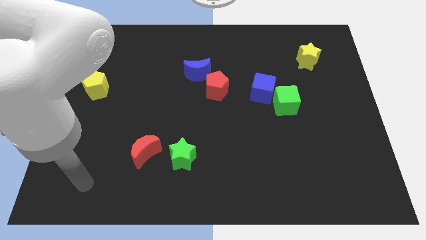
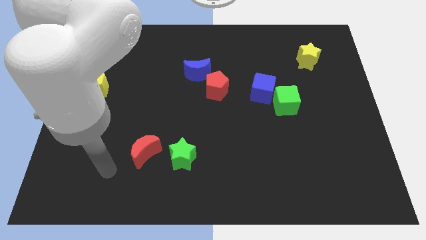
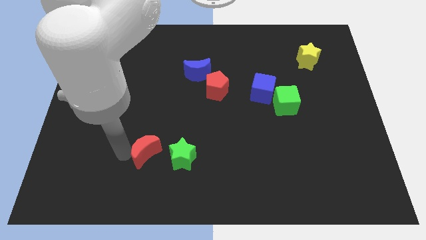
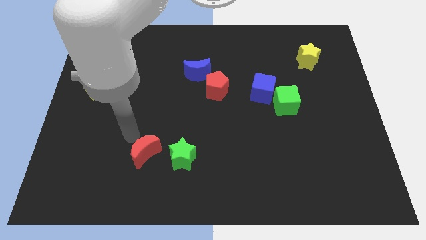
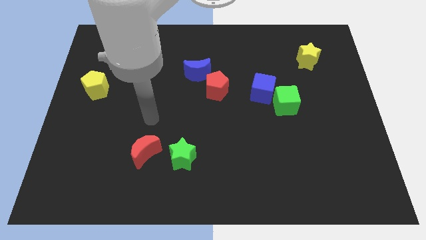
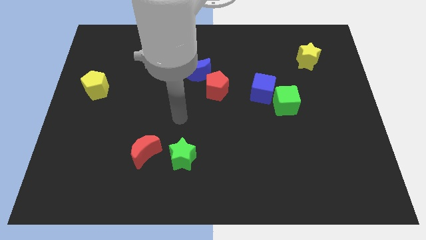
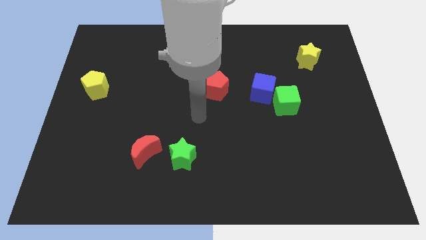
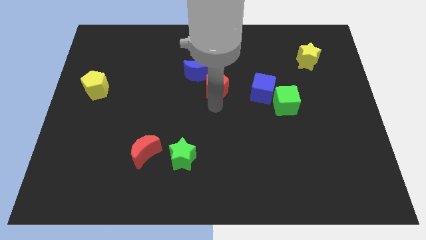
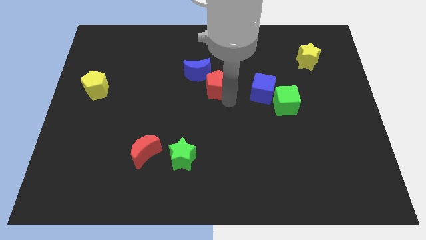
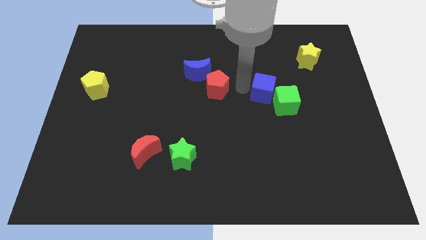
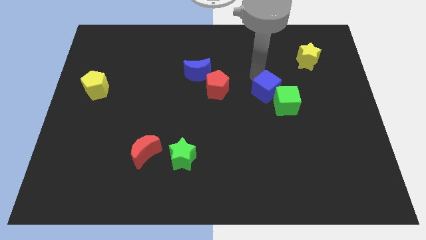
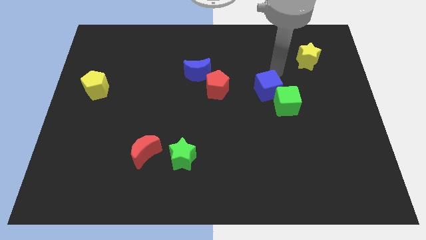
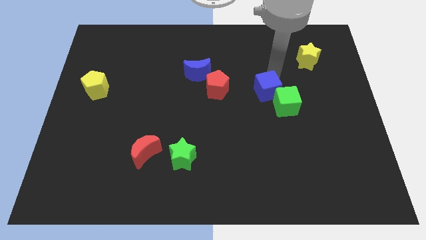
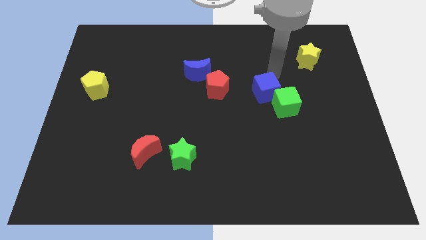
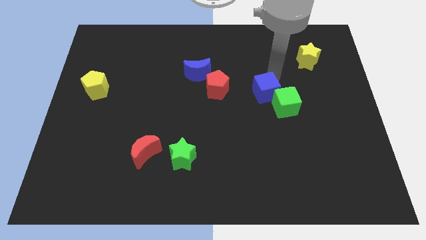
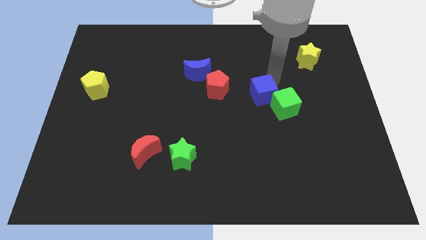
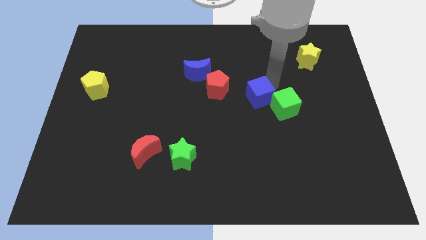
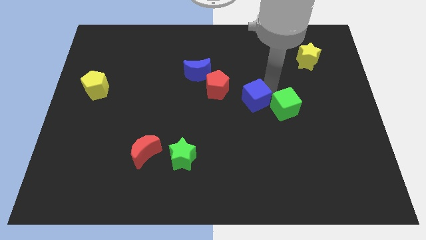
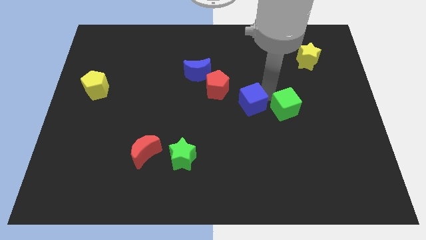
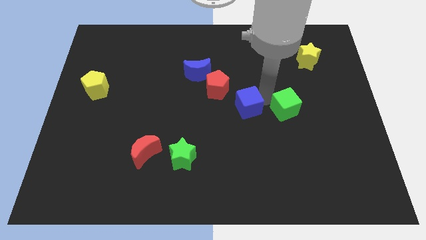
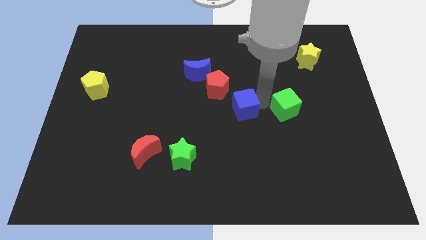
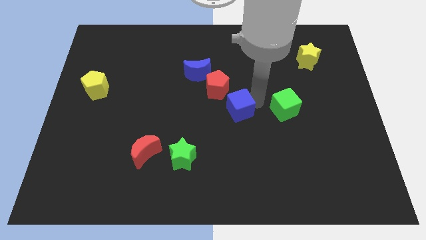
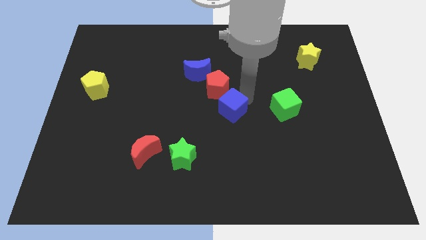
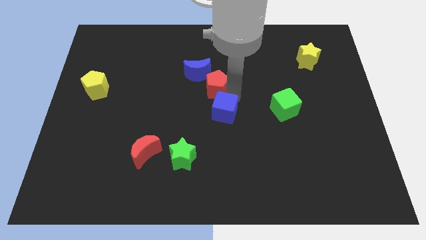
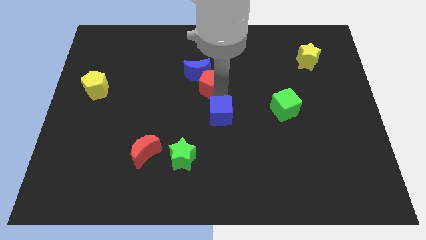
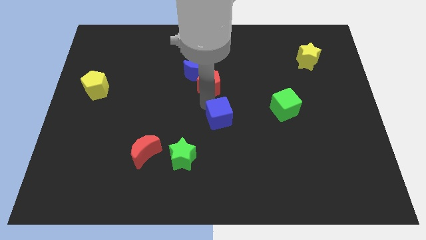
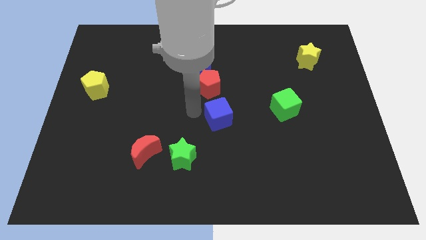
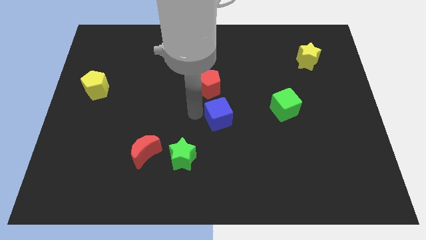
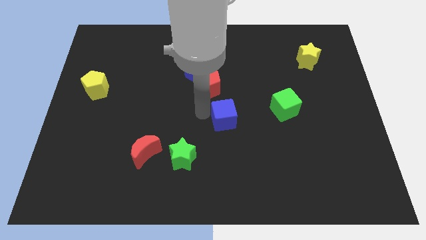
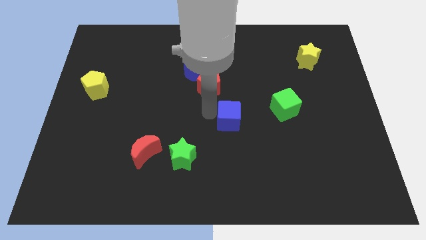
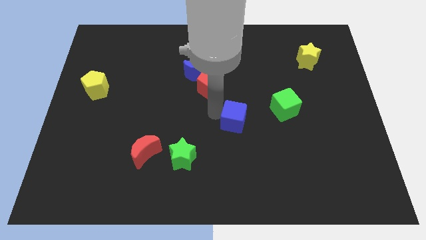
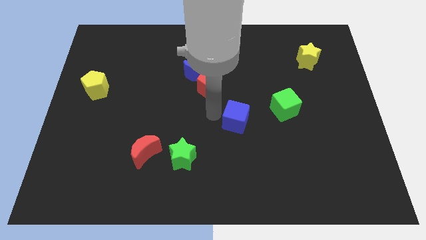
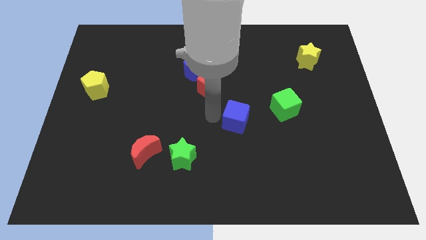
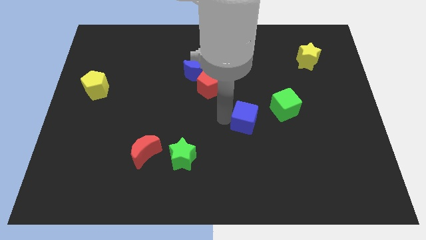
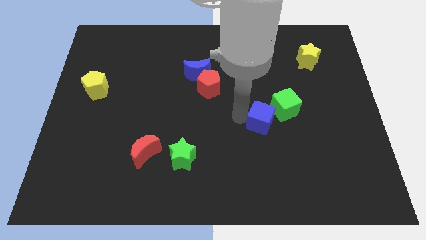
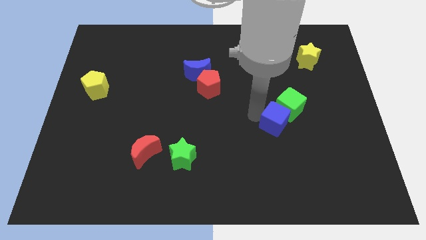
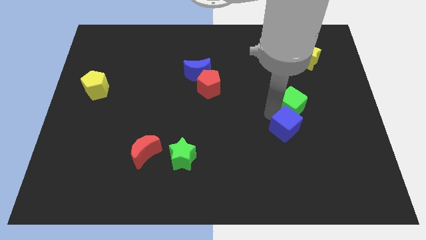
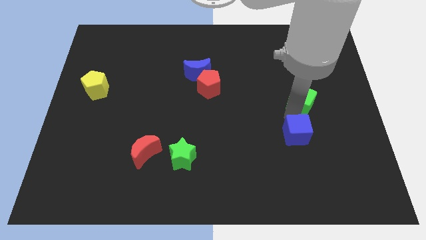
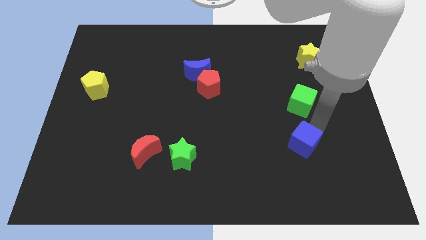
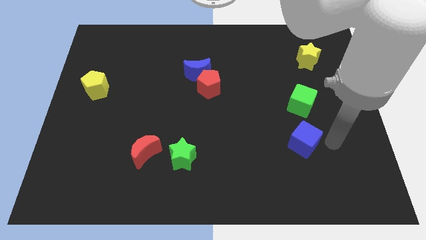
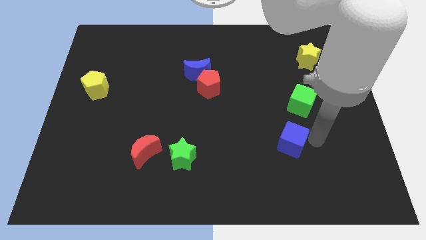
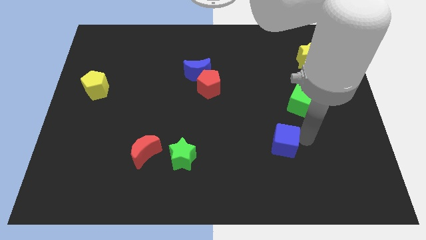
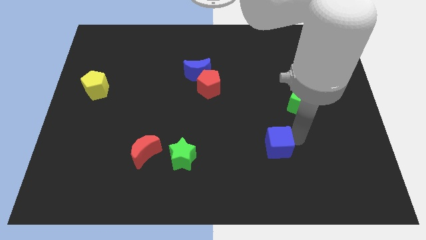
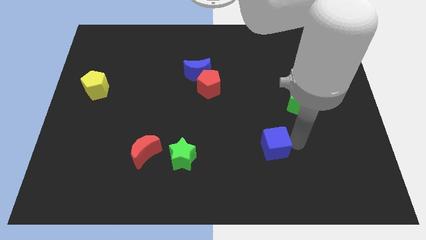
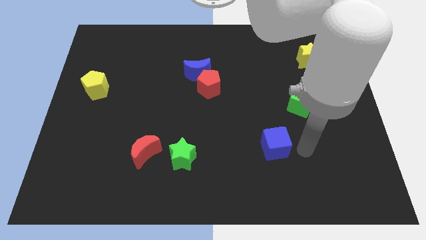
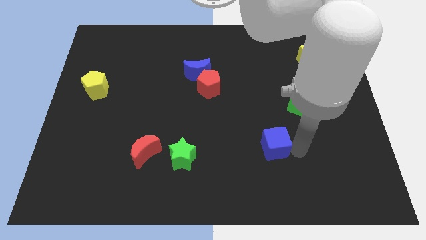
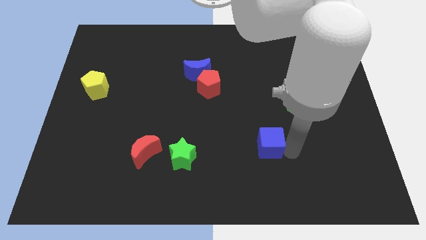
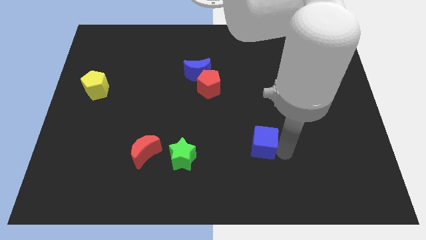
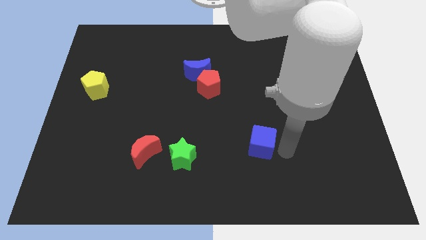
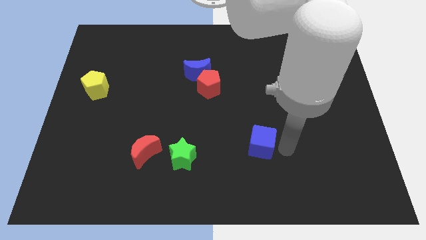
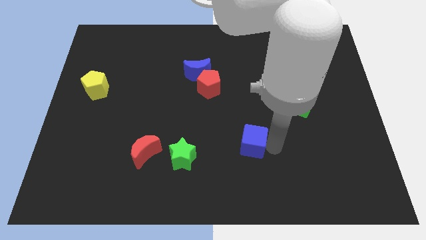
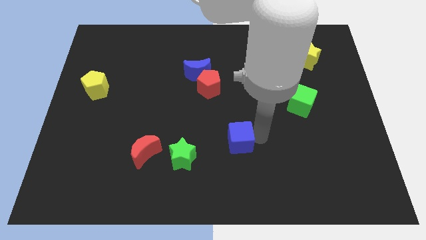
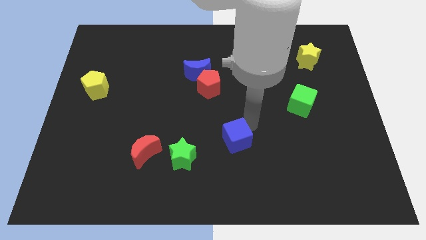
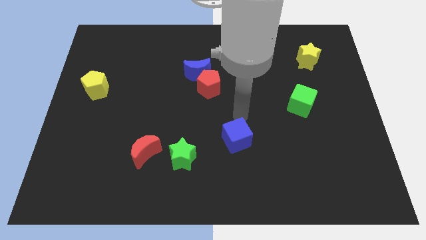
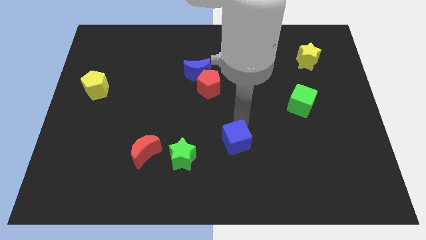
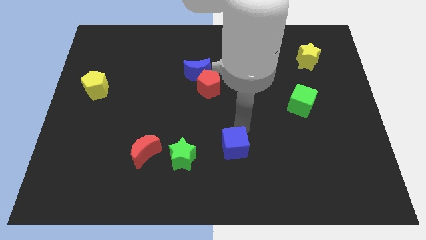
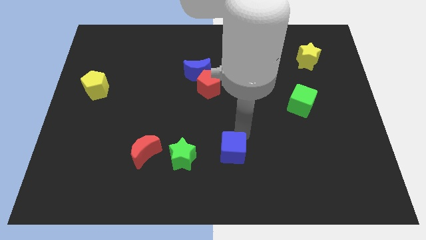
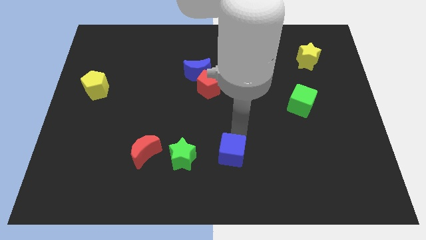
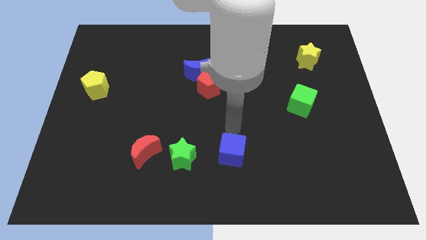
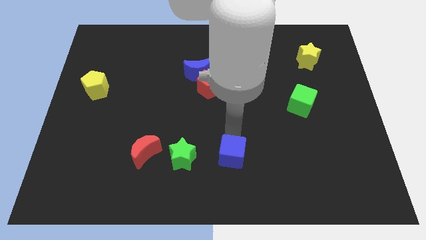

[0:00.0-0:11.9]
push the blue cube to the bottom side

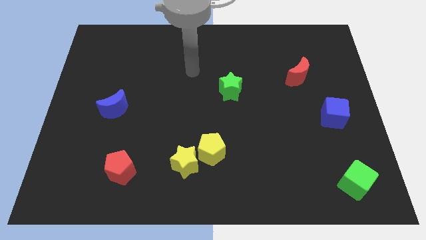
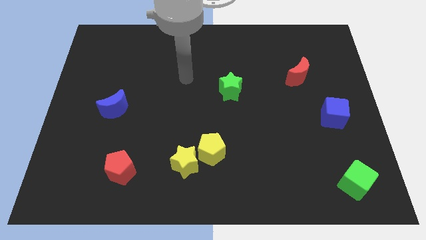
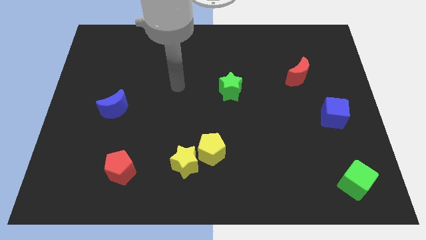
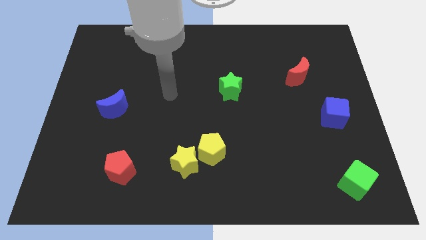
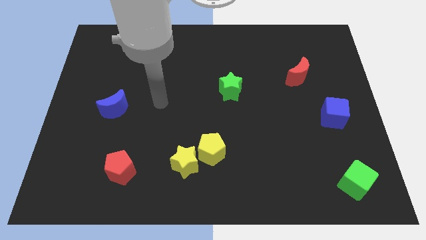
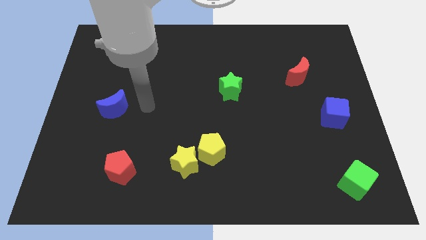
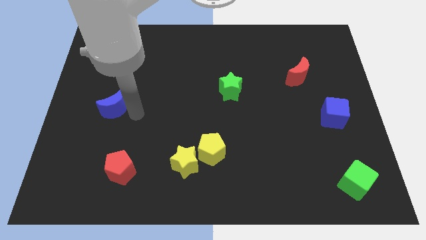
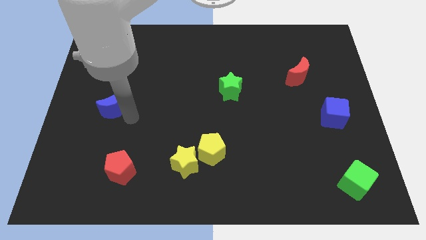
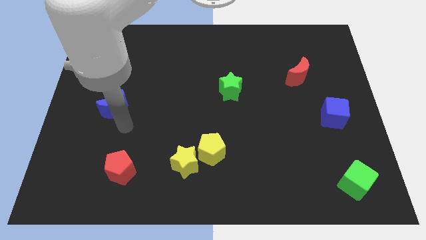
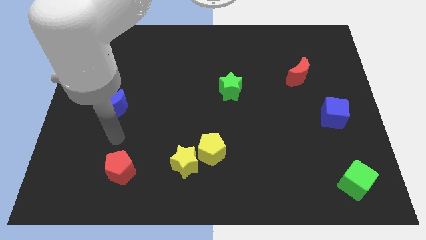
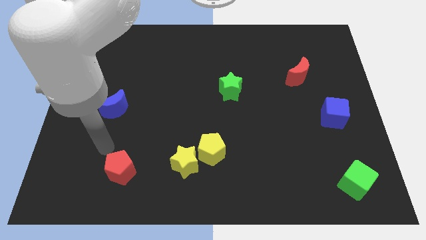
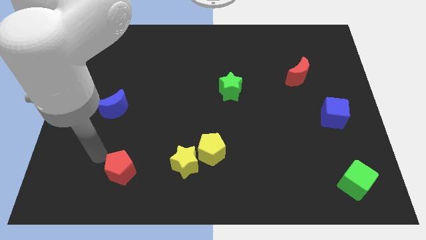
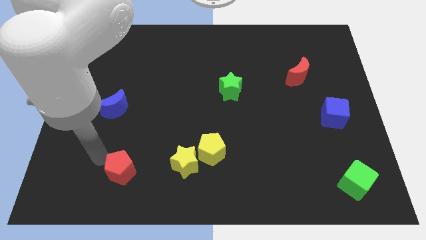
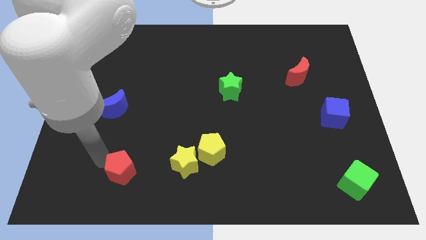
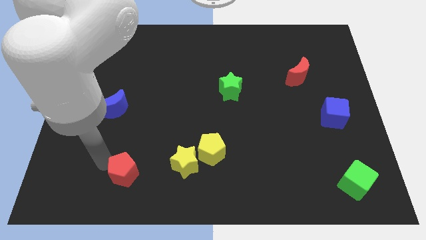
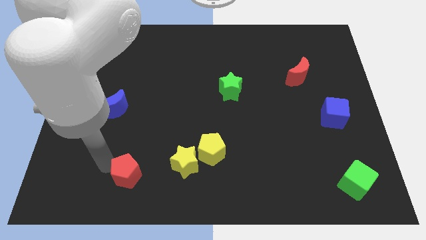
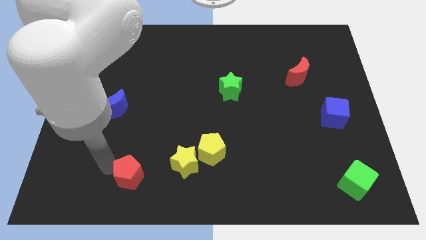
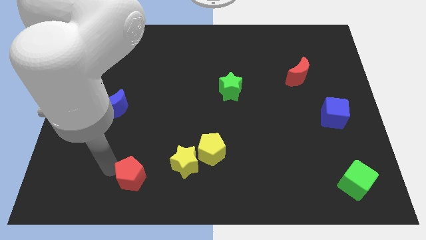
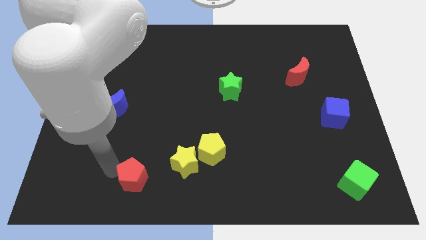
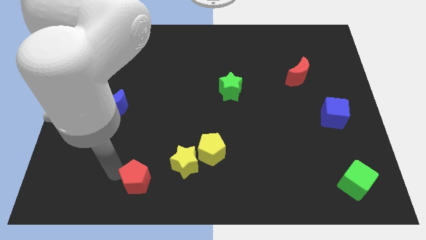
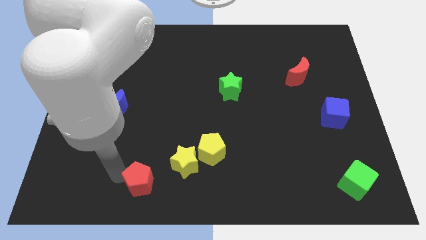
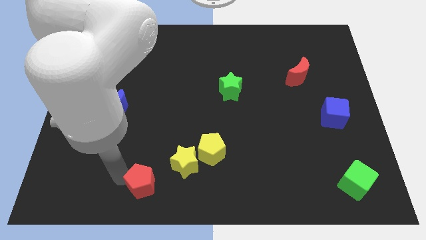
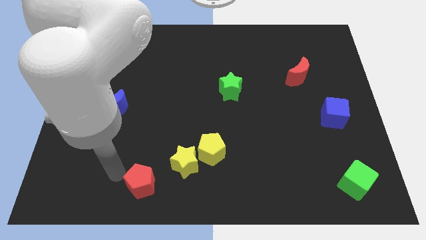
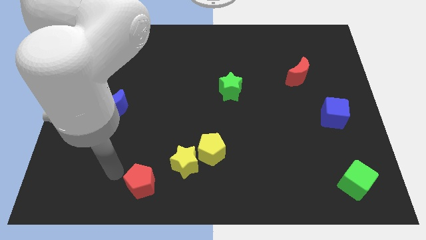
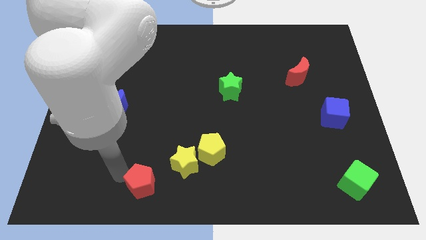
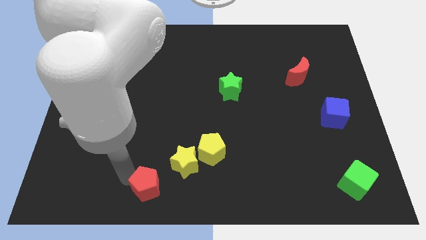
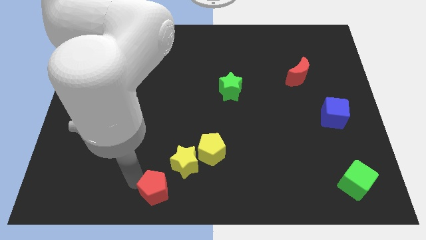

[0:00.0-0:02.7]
move the red pentagon to the bottom side
